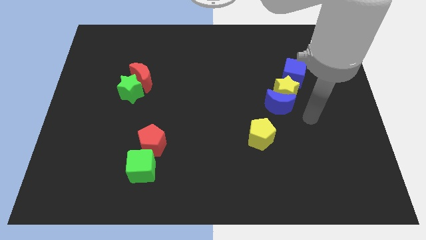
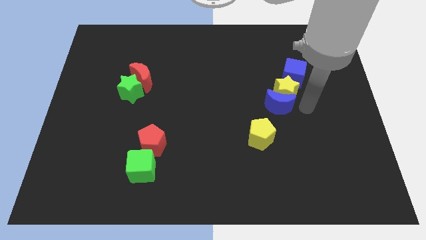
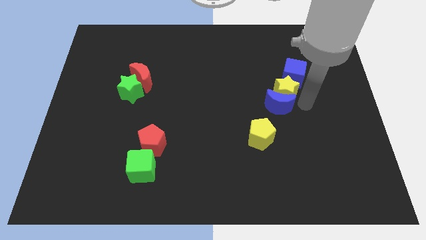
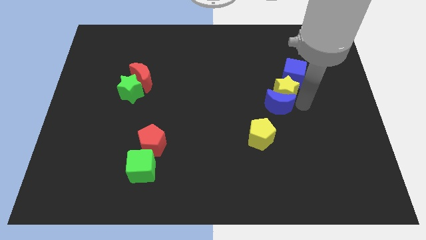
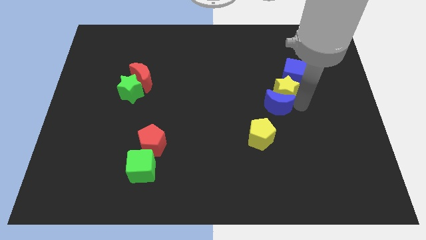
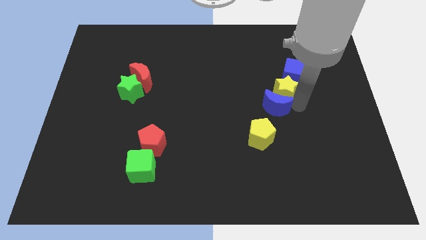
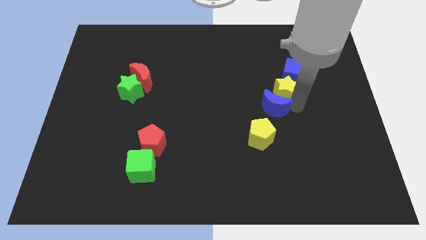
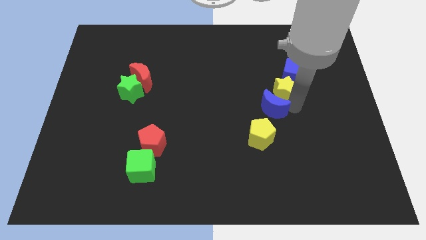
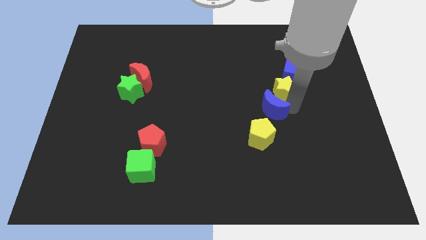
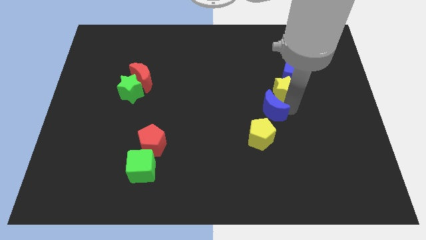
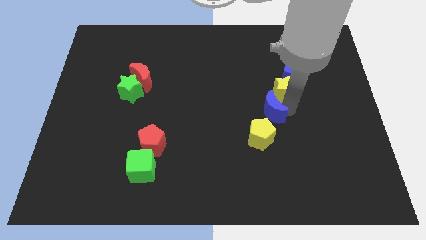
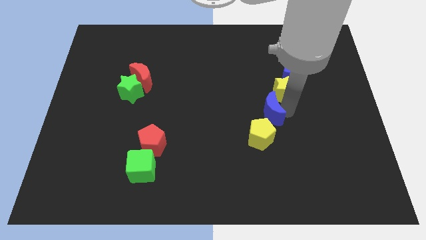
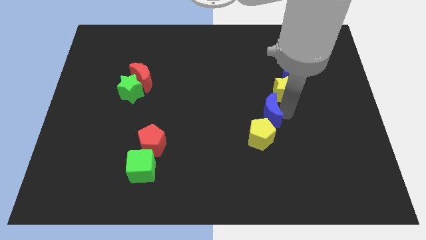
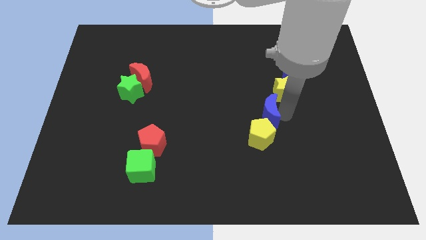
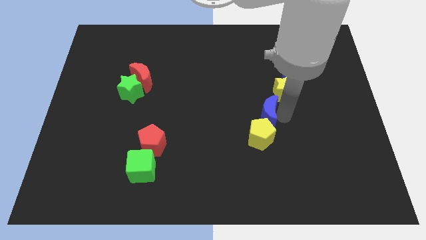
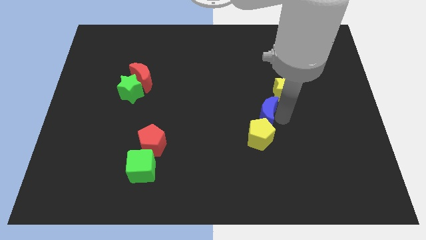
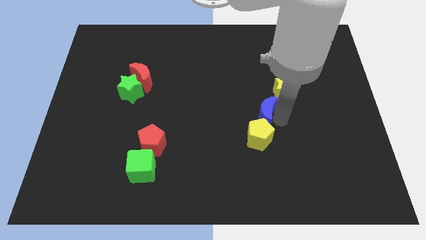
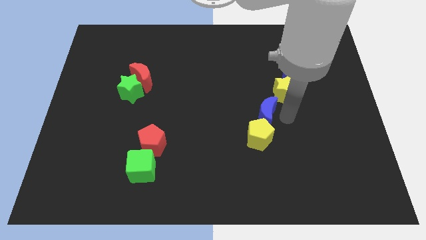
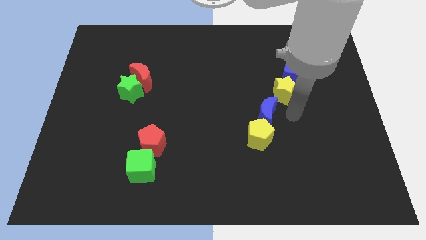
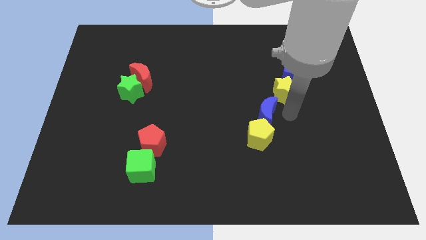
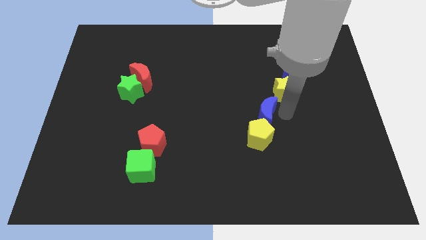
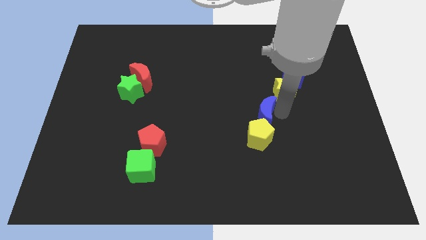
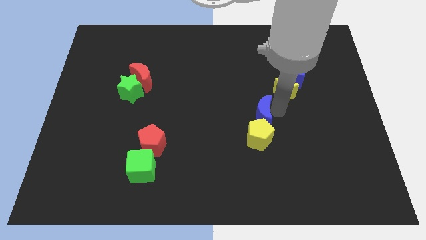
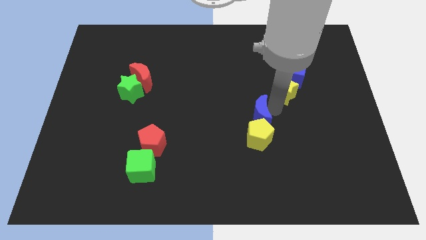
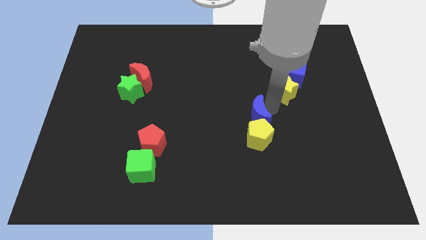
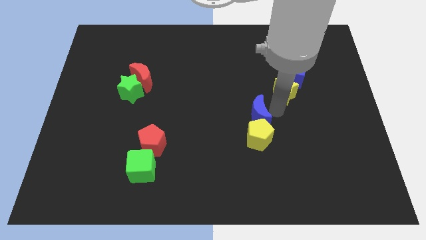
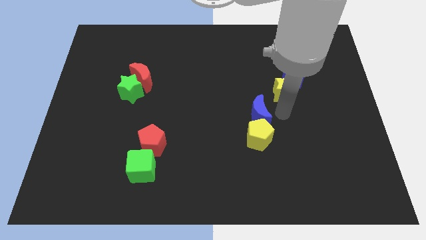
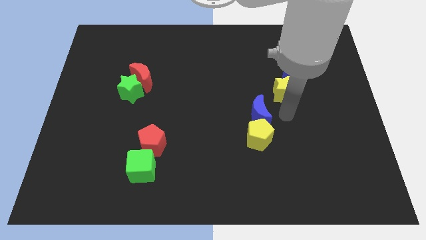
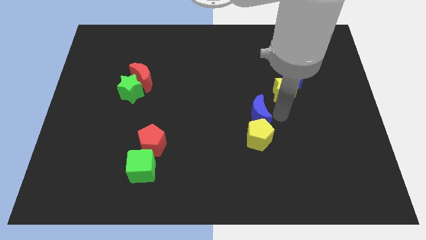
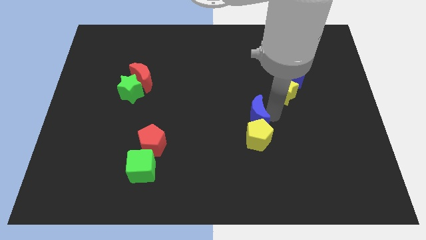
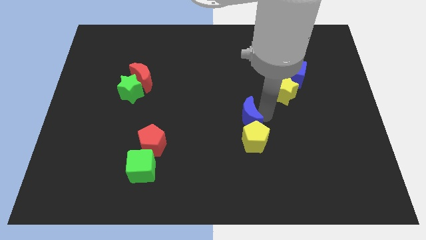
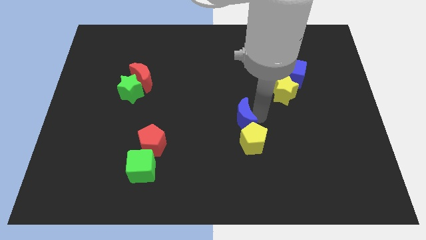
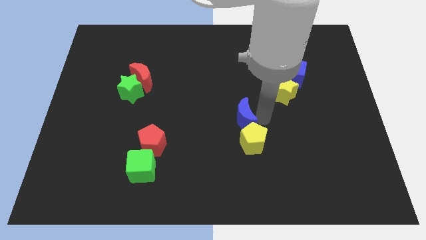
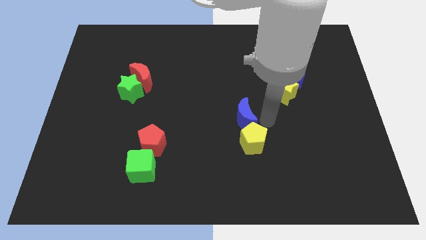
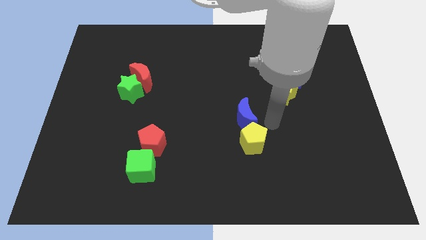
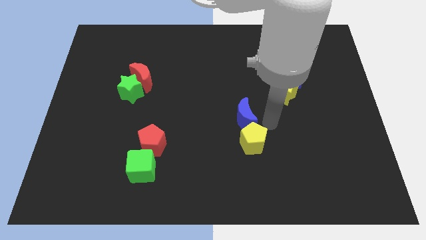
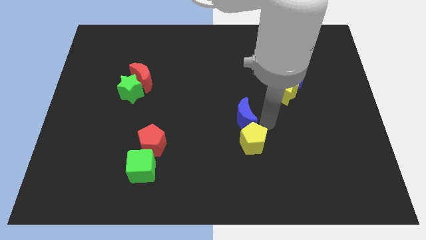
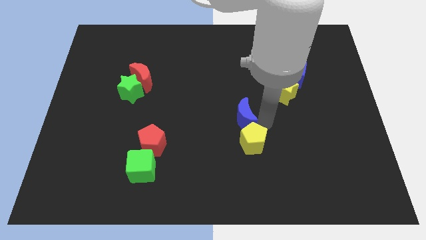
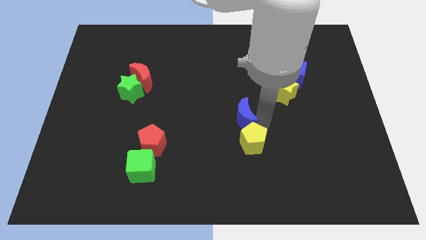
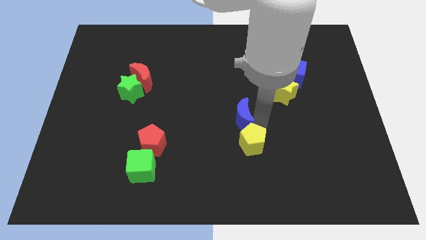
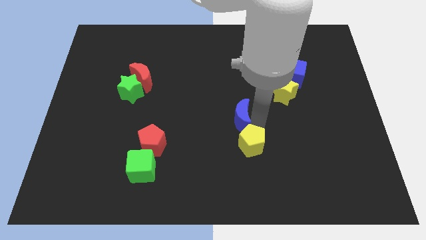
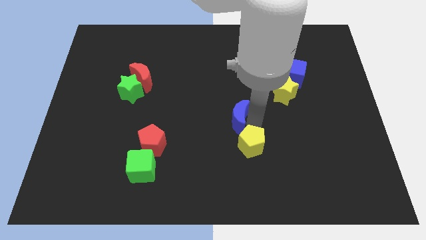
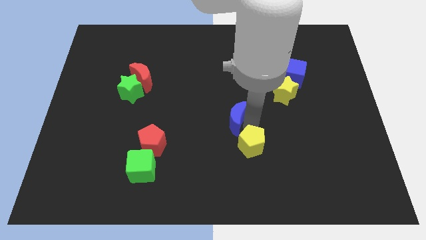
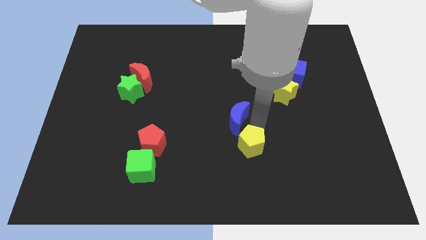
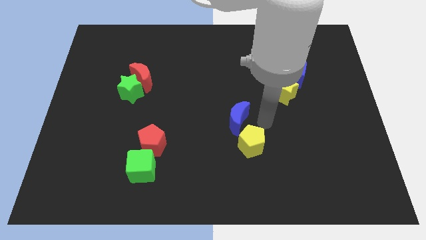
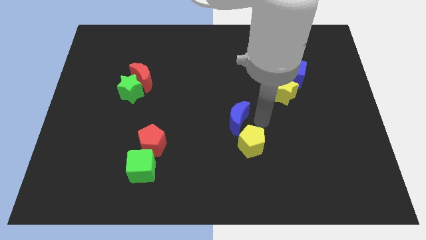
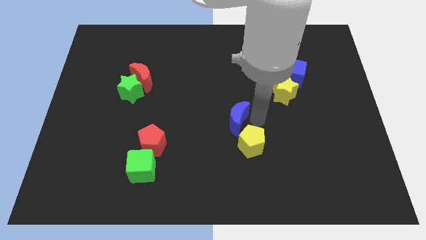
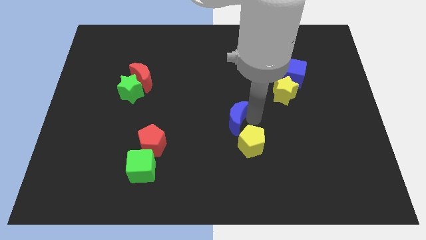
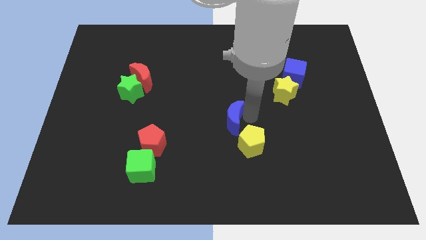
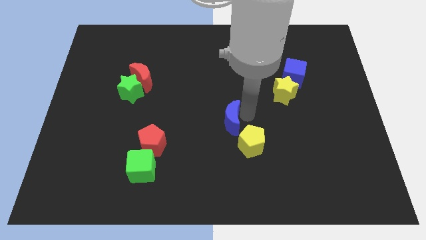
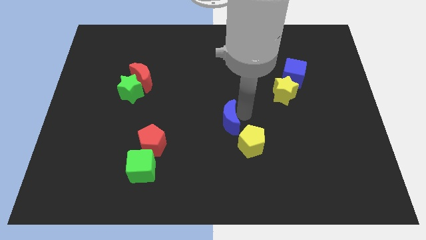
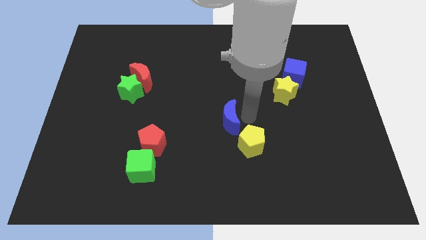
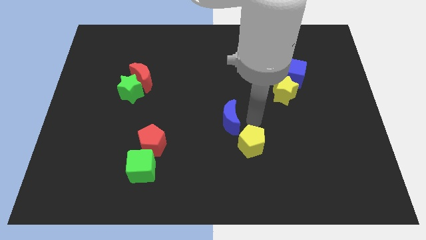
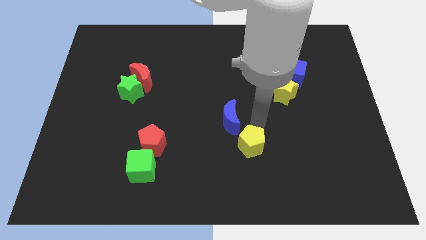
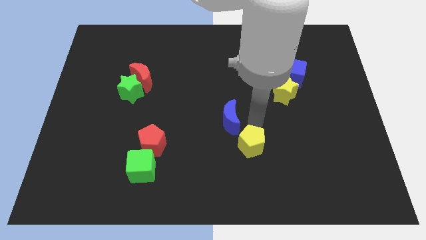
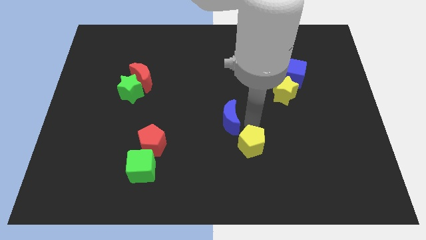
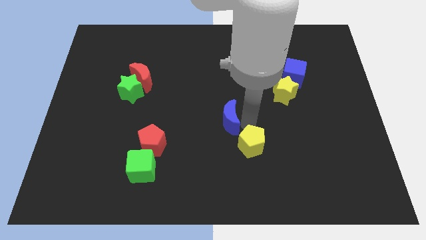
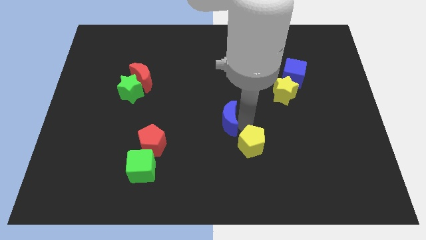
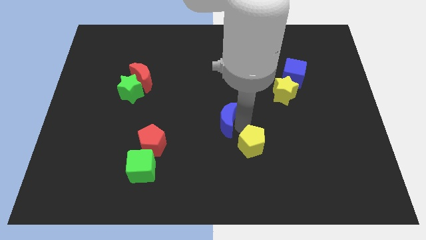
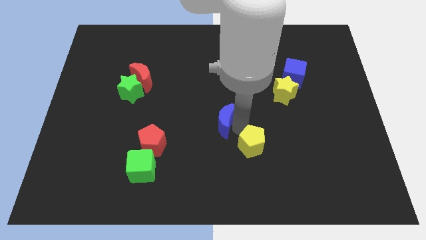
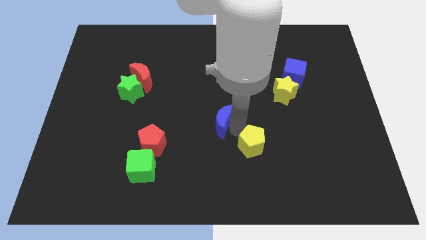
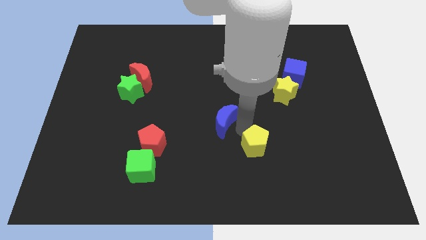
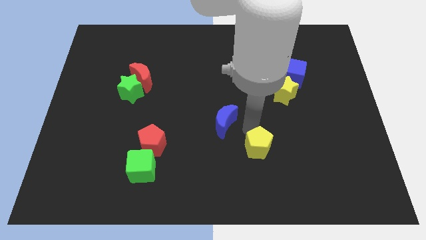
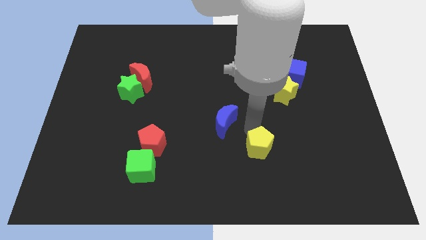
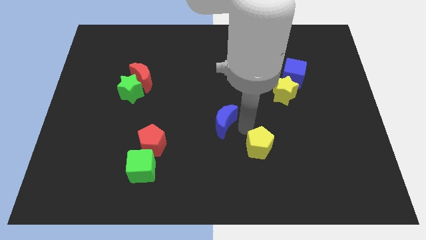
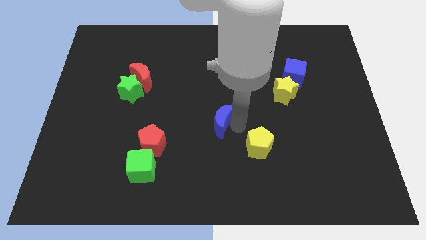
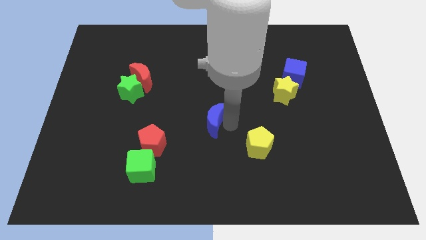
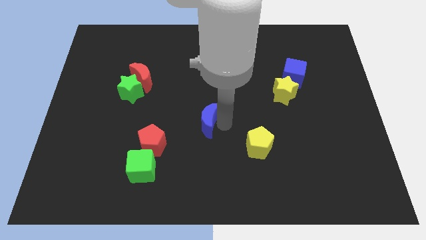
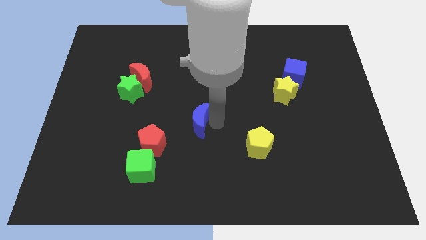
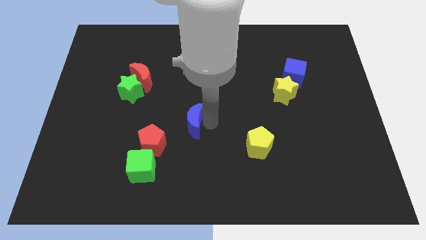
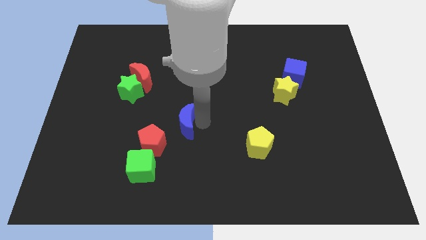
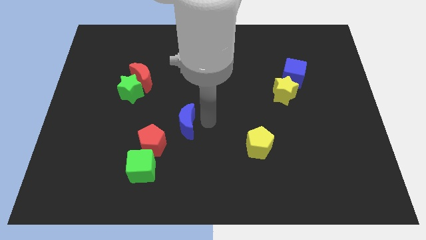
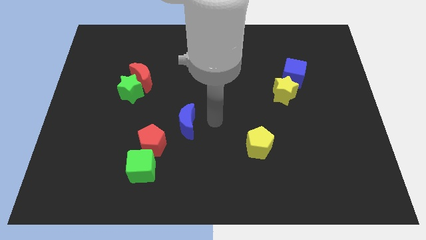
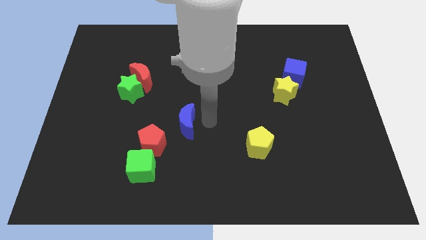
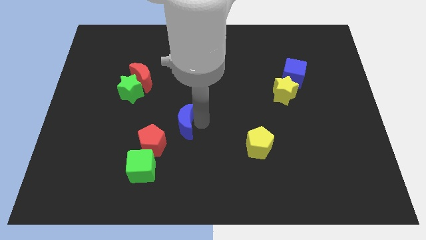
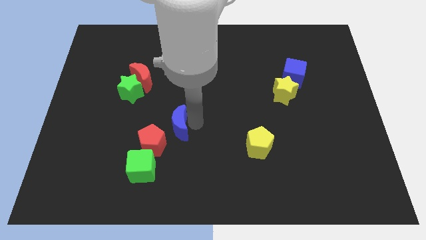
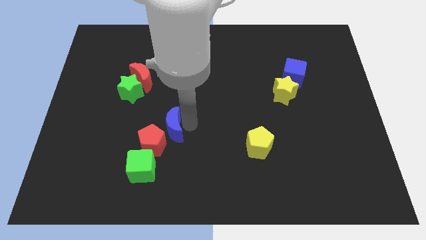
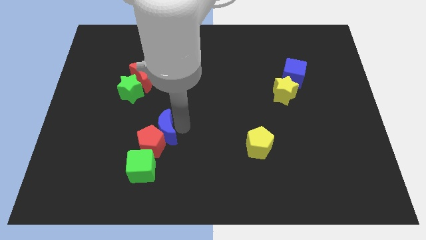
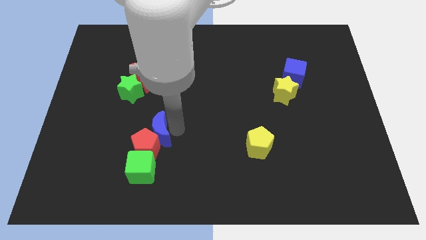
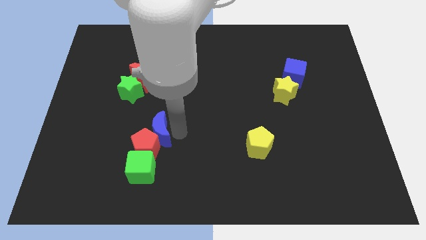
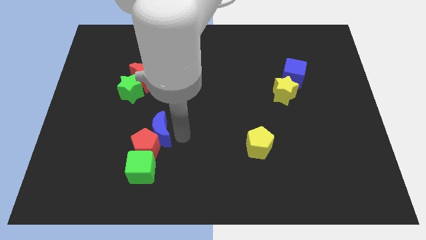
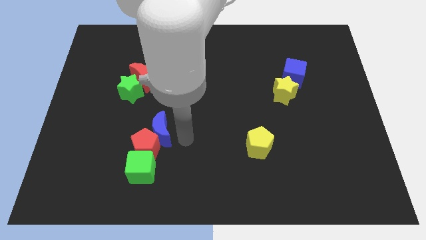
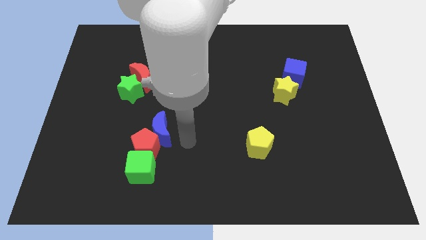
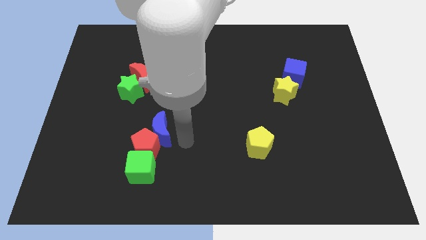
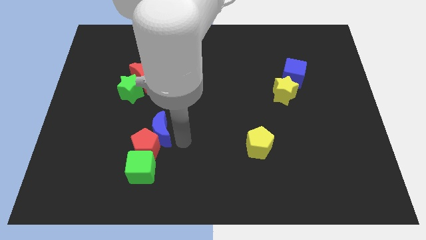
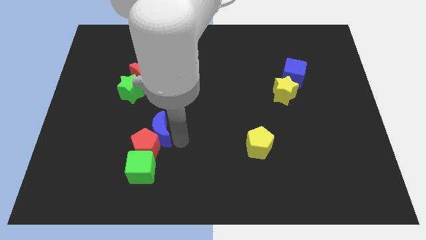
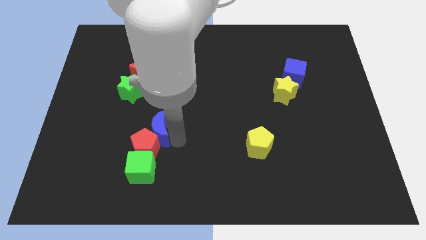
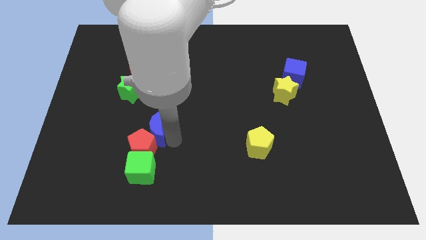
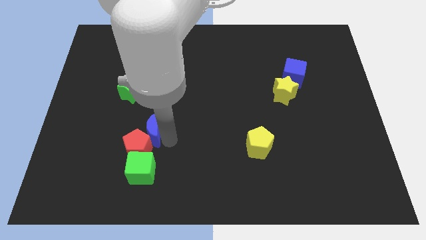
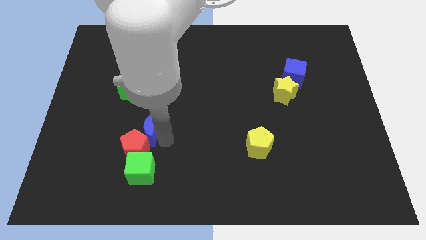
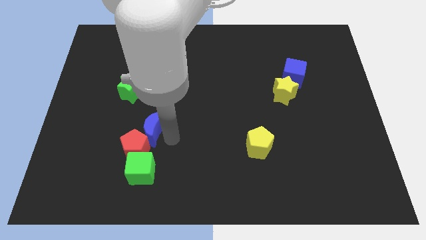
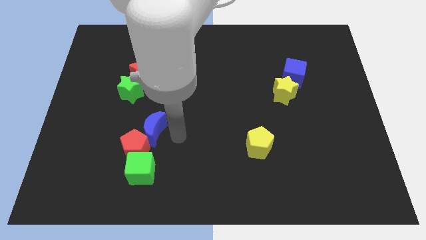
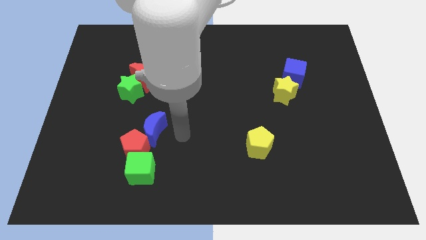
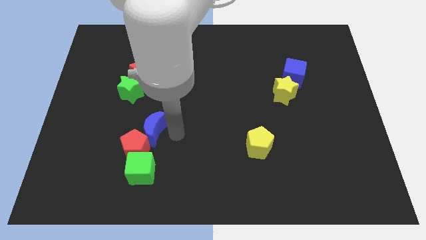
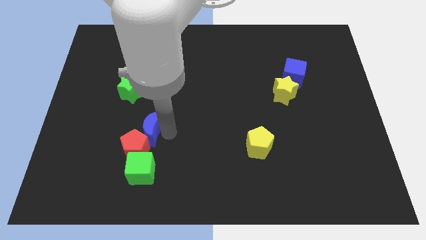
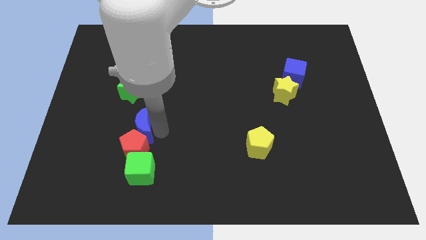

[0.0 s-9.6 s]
move the blue moon below the green star
